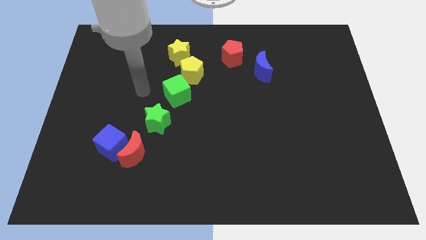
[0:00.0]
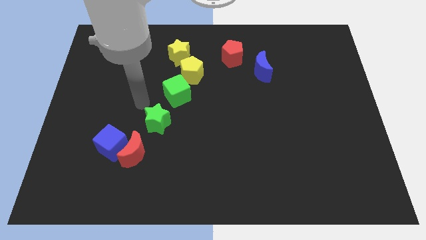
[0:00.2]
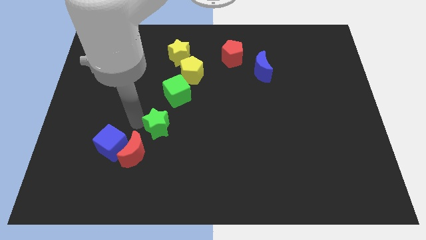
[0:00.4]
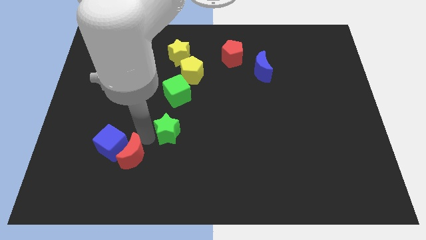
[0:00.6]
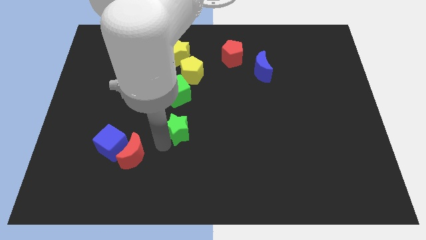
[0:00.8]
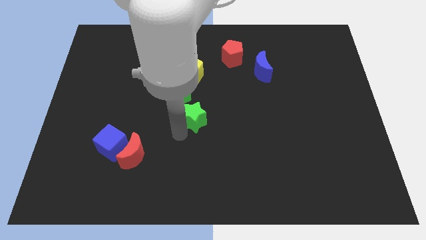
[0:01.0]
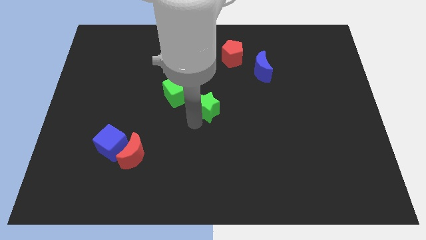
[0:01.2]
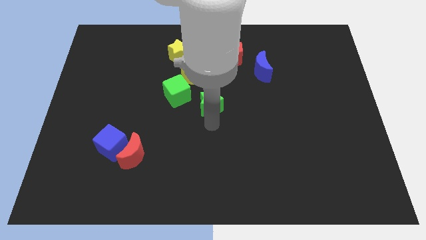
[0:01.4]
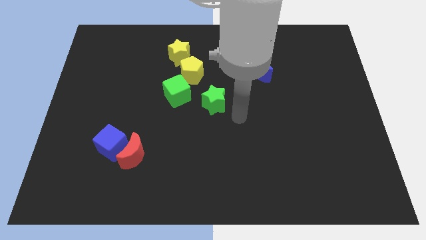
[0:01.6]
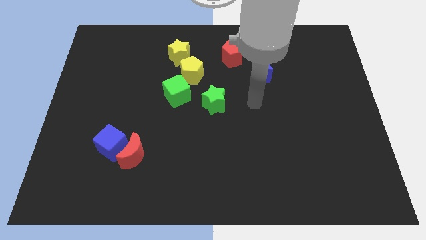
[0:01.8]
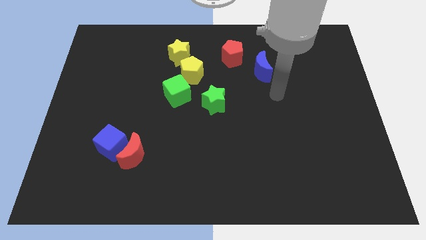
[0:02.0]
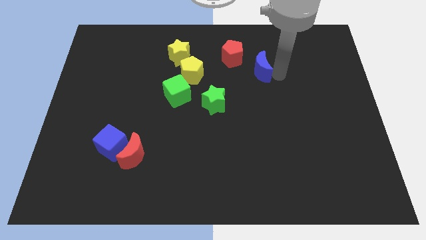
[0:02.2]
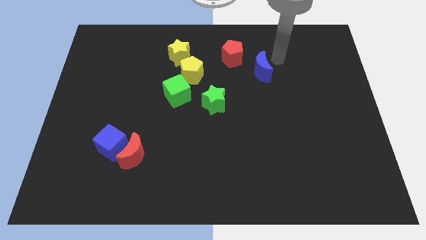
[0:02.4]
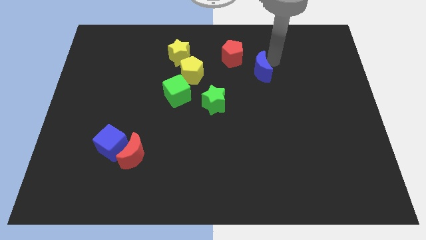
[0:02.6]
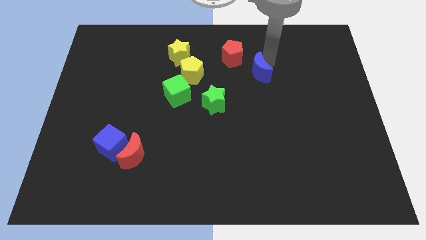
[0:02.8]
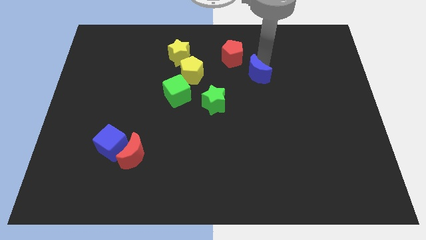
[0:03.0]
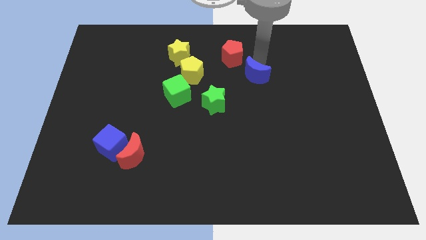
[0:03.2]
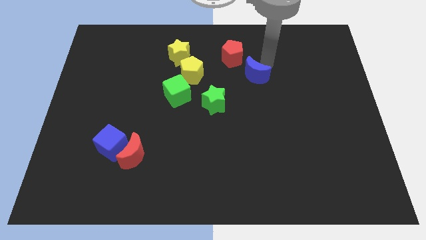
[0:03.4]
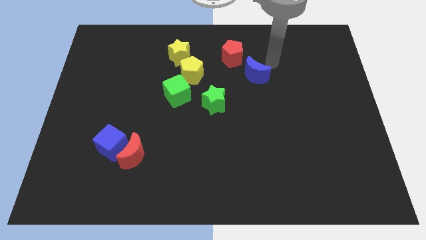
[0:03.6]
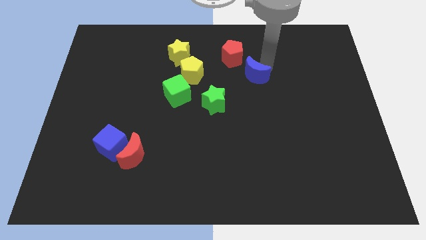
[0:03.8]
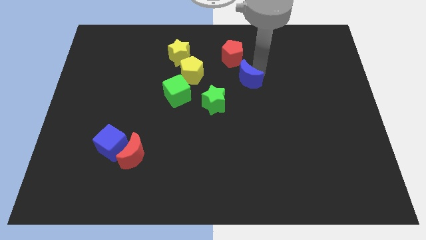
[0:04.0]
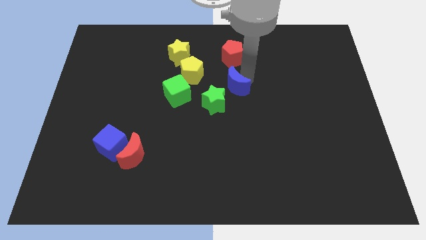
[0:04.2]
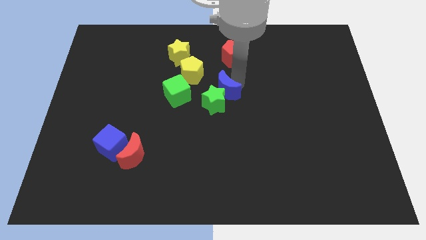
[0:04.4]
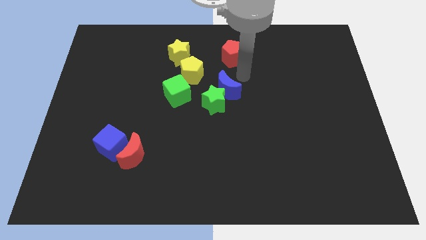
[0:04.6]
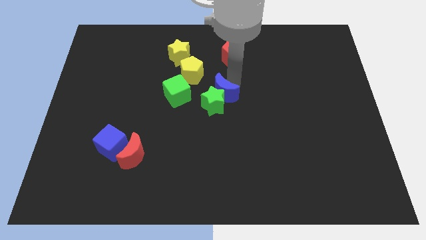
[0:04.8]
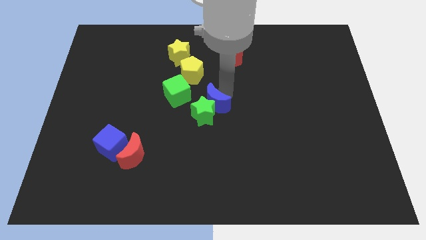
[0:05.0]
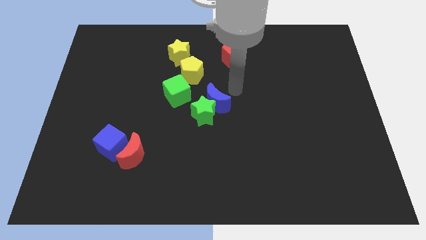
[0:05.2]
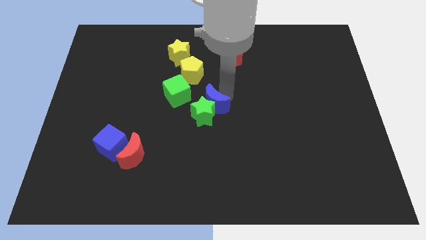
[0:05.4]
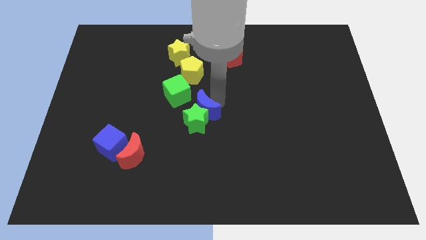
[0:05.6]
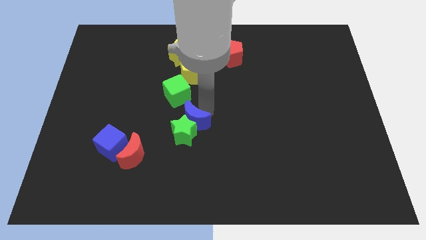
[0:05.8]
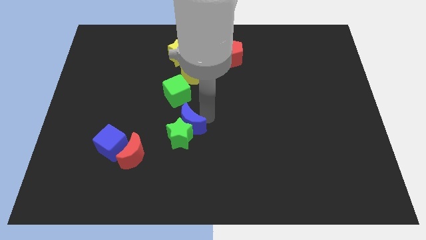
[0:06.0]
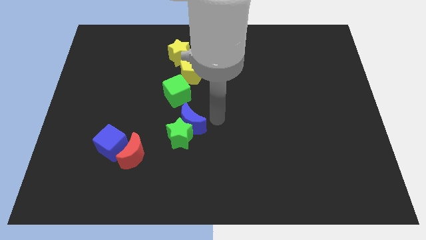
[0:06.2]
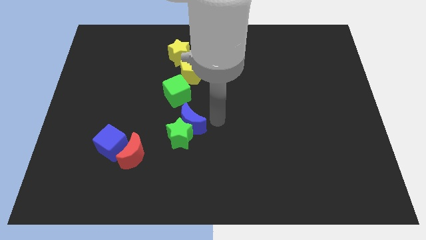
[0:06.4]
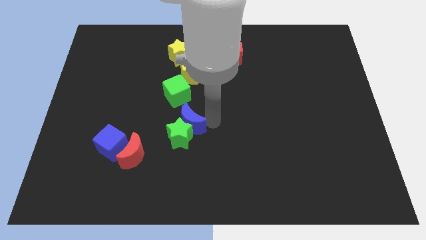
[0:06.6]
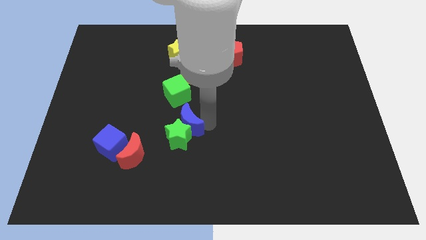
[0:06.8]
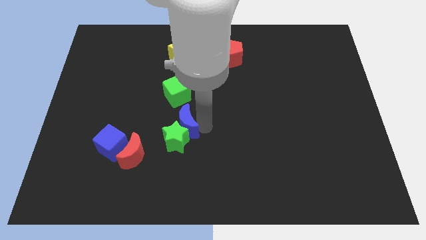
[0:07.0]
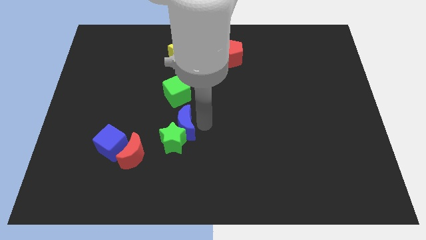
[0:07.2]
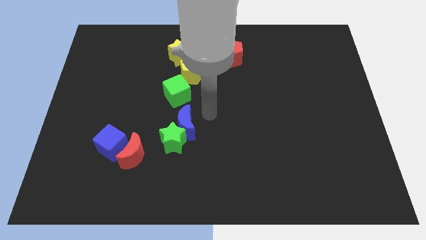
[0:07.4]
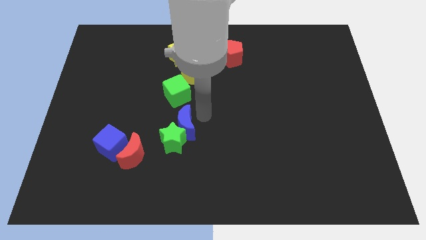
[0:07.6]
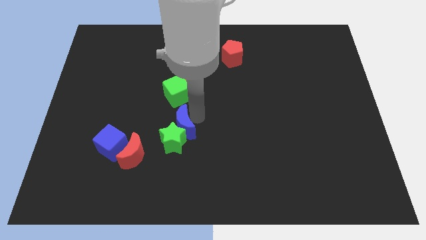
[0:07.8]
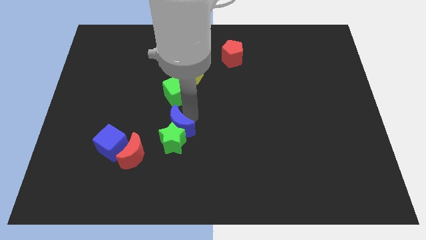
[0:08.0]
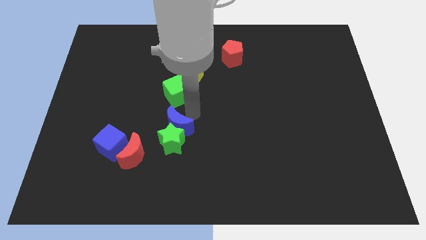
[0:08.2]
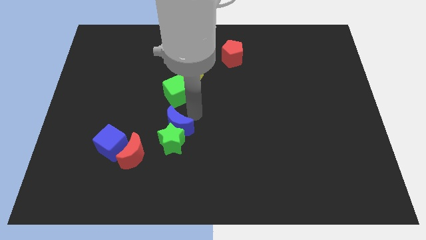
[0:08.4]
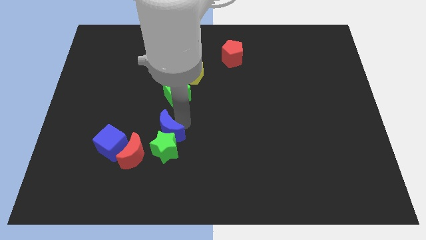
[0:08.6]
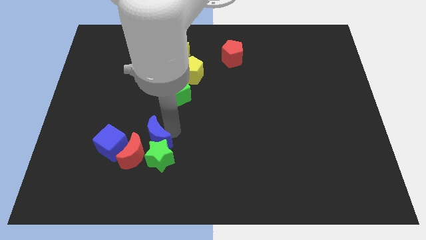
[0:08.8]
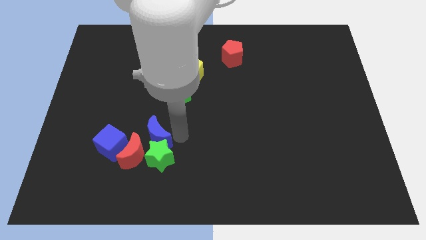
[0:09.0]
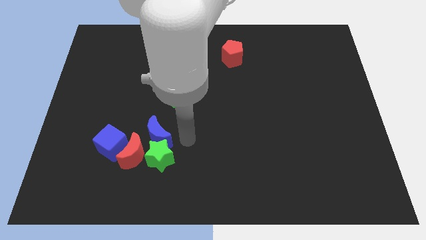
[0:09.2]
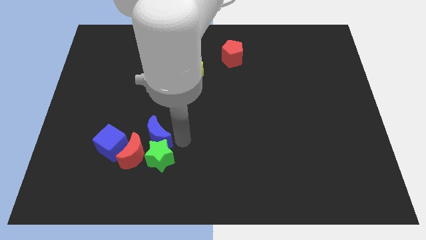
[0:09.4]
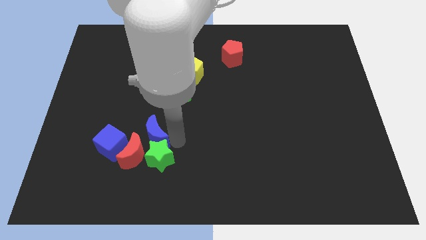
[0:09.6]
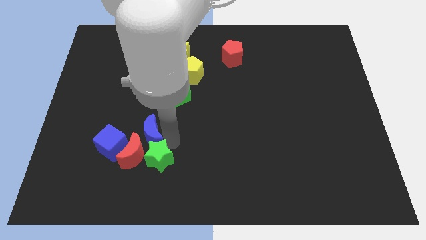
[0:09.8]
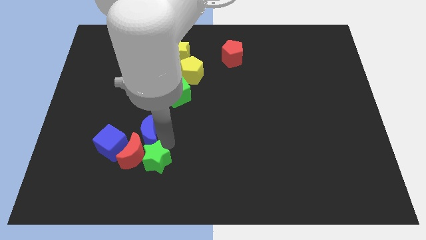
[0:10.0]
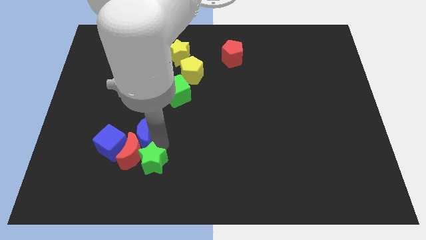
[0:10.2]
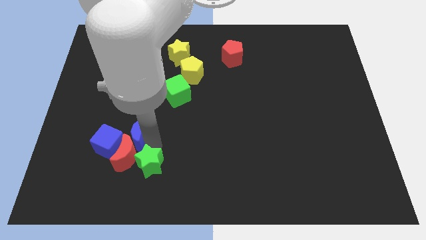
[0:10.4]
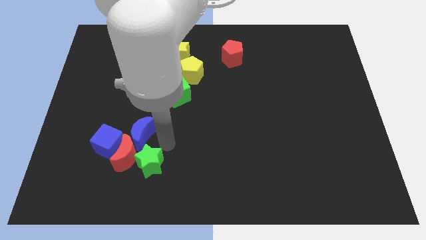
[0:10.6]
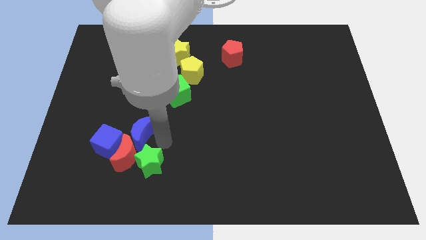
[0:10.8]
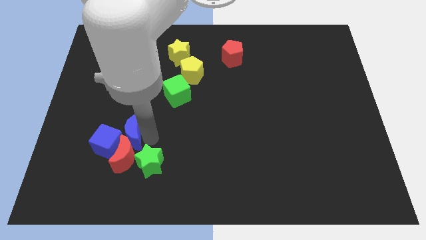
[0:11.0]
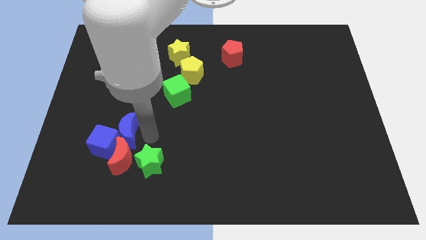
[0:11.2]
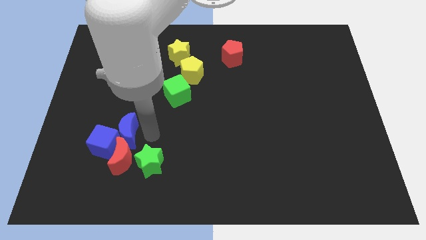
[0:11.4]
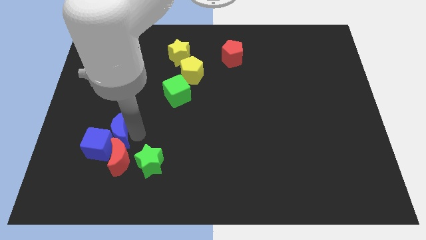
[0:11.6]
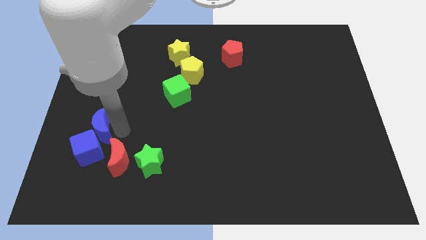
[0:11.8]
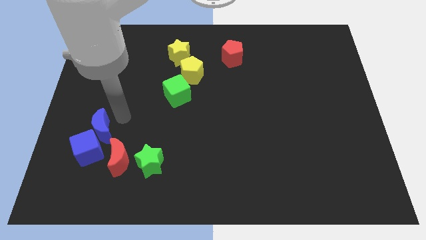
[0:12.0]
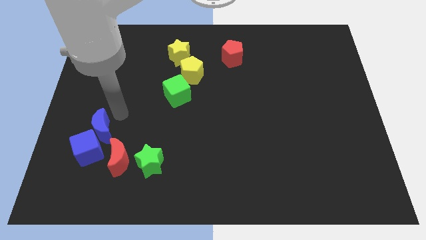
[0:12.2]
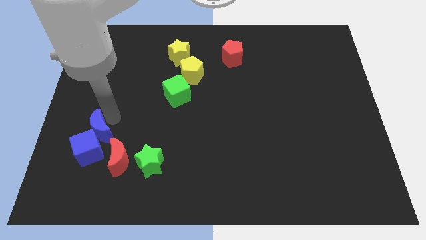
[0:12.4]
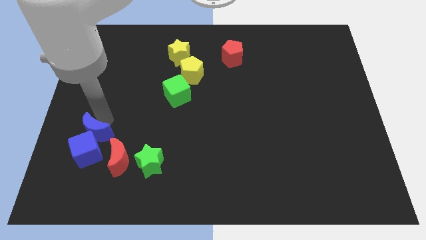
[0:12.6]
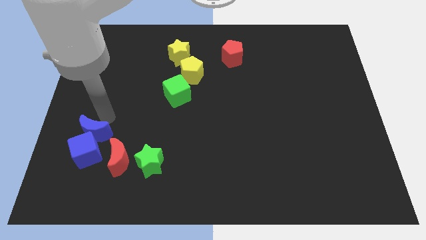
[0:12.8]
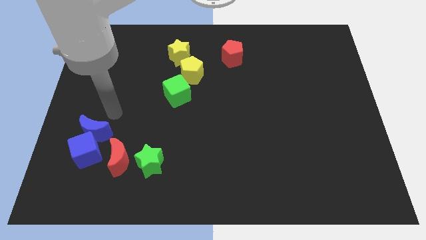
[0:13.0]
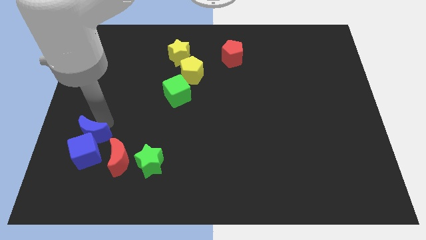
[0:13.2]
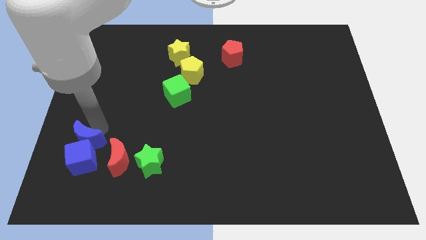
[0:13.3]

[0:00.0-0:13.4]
slide the blue moon left of the red moon
